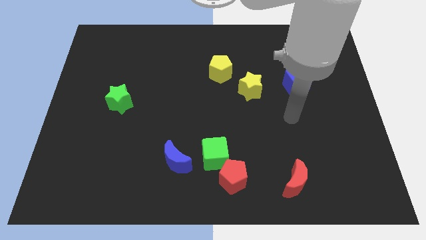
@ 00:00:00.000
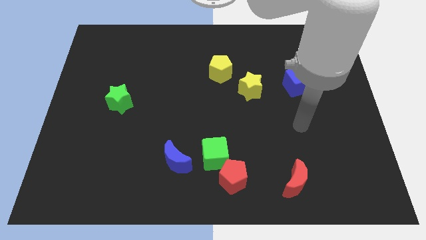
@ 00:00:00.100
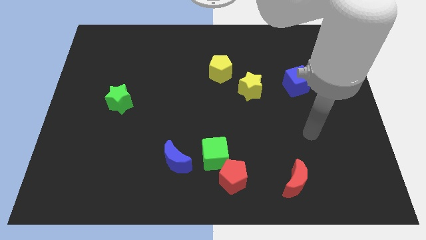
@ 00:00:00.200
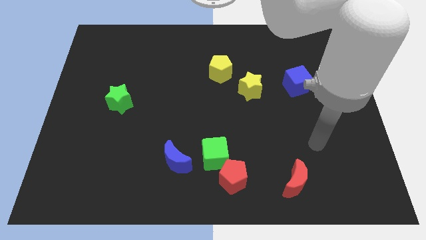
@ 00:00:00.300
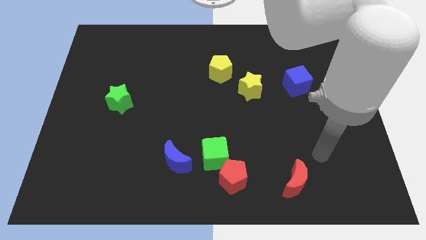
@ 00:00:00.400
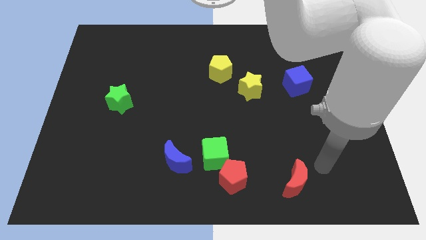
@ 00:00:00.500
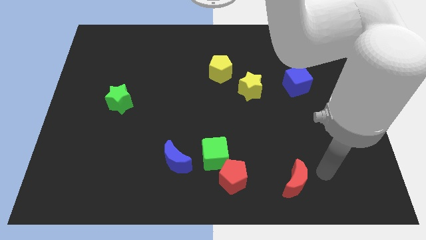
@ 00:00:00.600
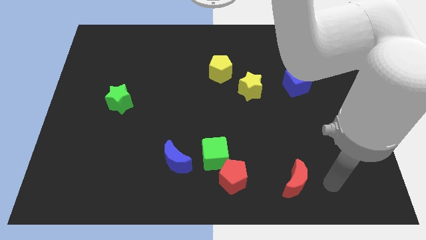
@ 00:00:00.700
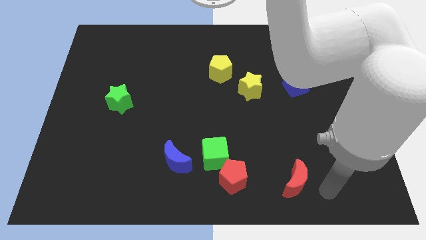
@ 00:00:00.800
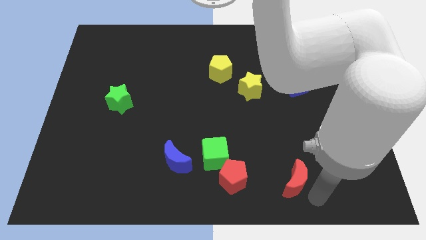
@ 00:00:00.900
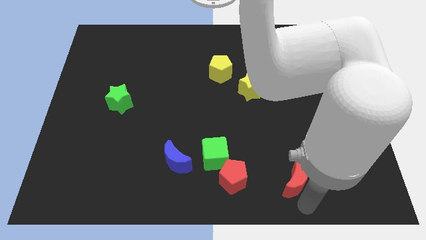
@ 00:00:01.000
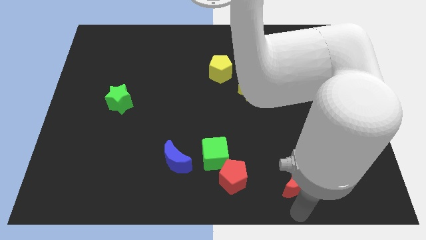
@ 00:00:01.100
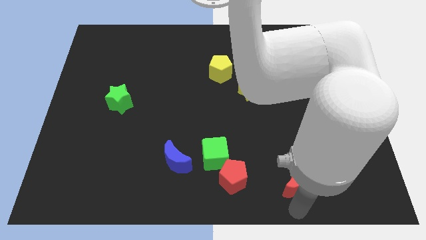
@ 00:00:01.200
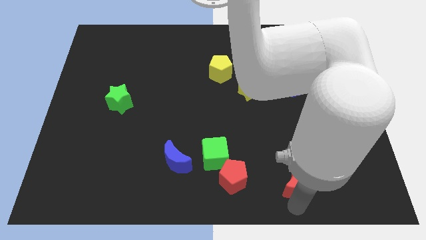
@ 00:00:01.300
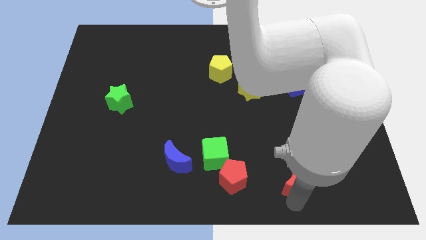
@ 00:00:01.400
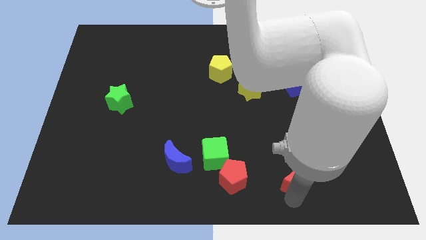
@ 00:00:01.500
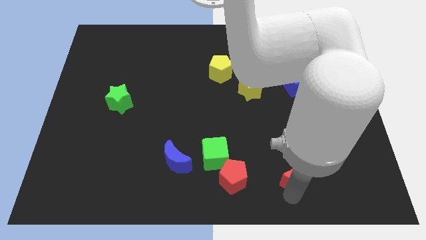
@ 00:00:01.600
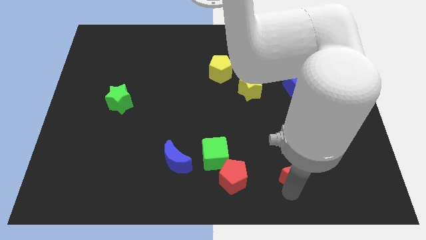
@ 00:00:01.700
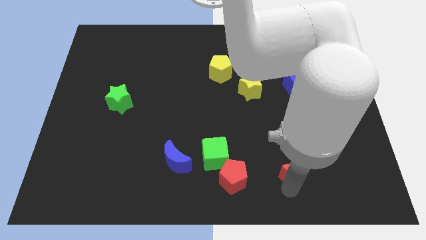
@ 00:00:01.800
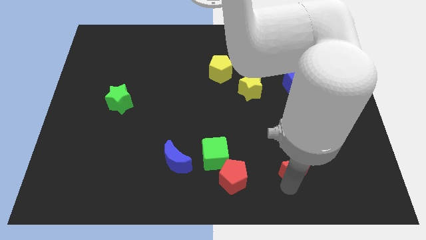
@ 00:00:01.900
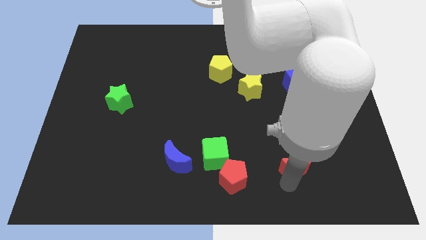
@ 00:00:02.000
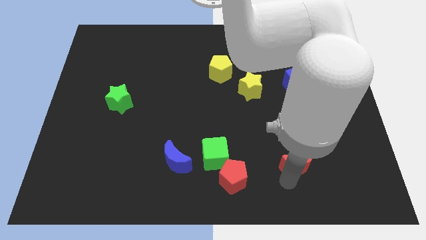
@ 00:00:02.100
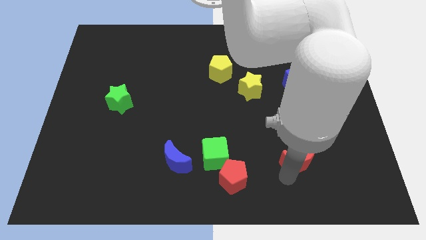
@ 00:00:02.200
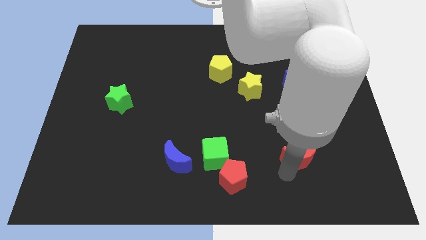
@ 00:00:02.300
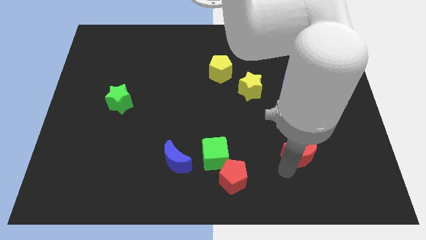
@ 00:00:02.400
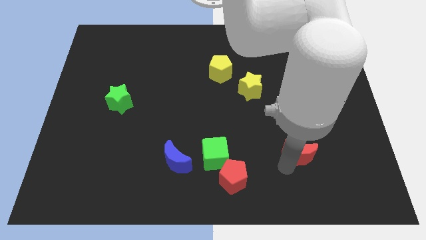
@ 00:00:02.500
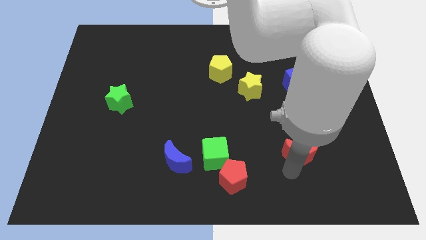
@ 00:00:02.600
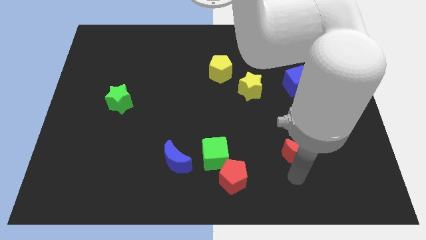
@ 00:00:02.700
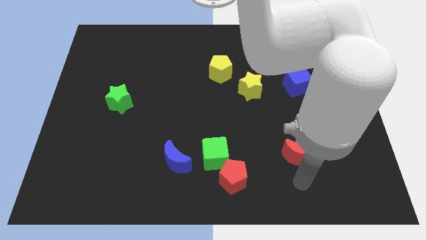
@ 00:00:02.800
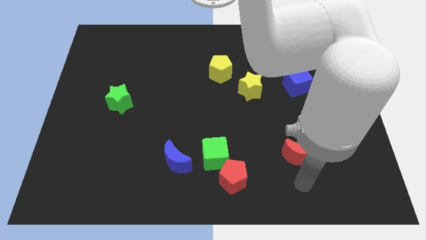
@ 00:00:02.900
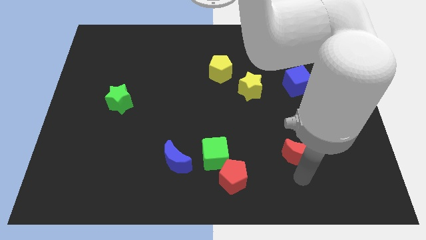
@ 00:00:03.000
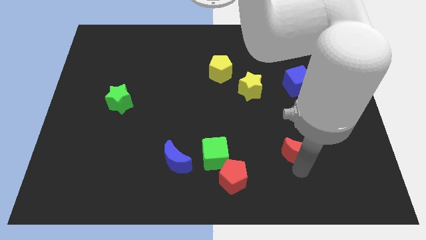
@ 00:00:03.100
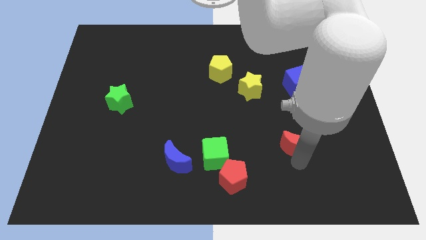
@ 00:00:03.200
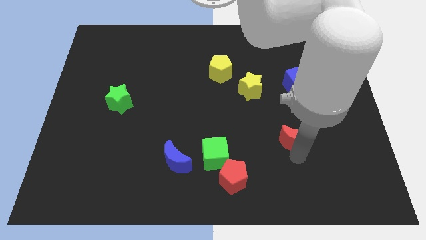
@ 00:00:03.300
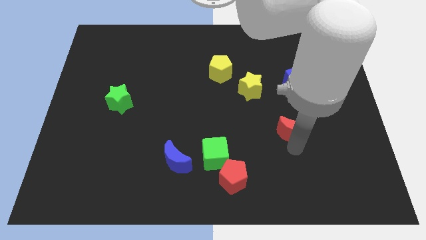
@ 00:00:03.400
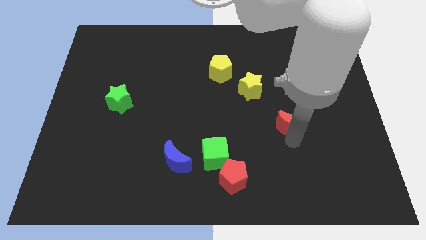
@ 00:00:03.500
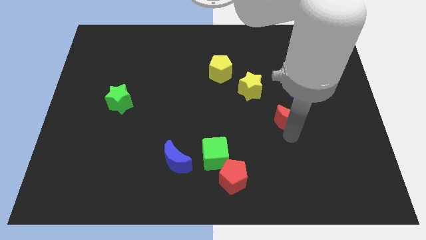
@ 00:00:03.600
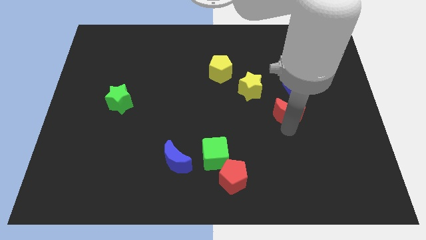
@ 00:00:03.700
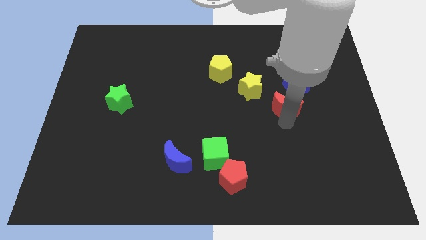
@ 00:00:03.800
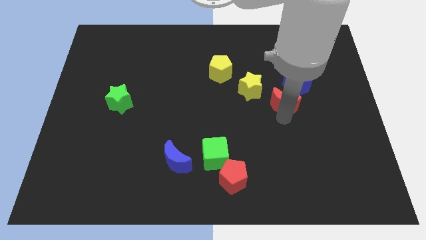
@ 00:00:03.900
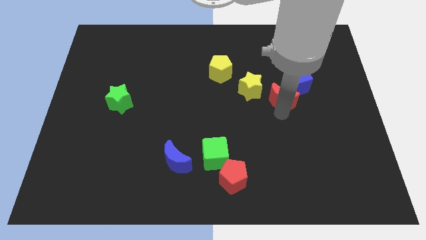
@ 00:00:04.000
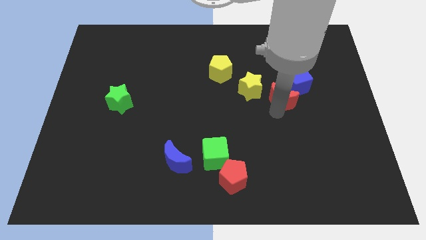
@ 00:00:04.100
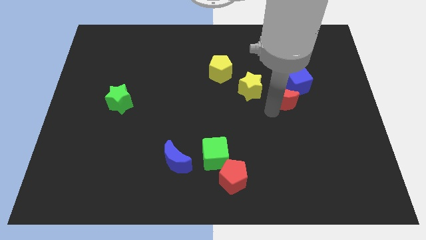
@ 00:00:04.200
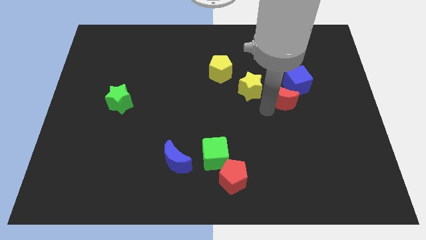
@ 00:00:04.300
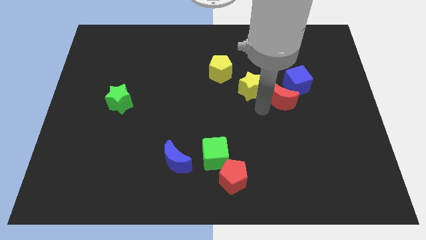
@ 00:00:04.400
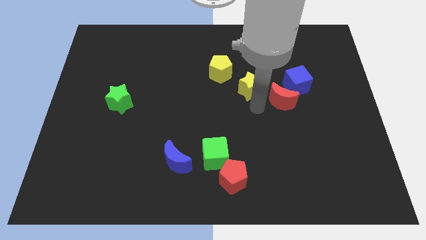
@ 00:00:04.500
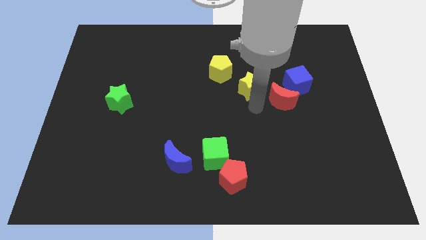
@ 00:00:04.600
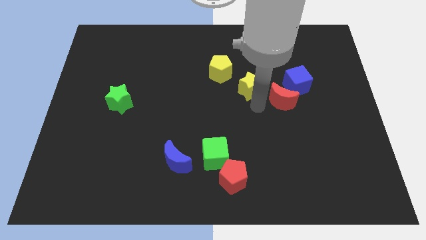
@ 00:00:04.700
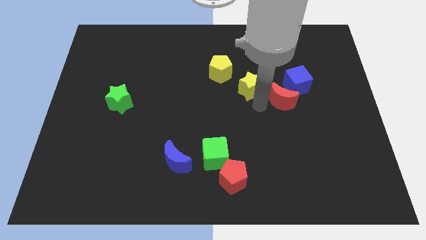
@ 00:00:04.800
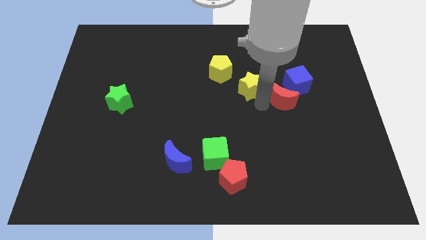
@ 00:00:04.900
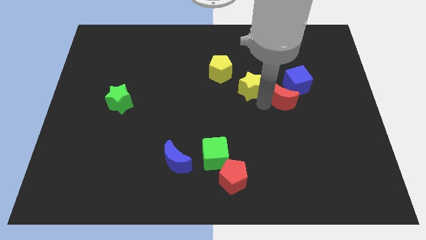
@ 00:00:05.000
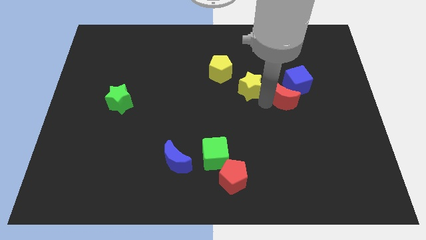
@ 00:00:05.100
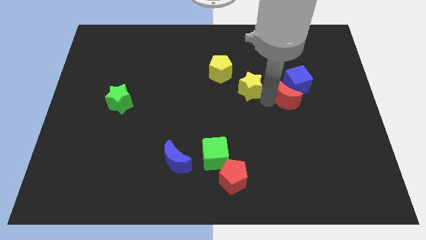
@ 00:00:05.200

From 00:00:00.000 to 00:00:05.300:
put the red moon towards the blue cube

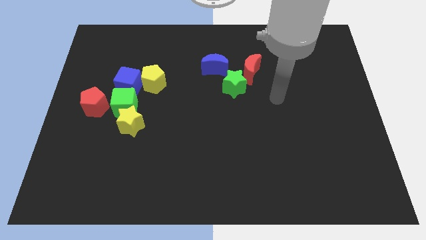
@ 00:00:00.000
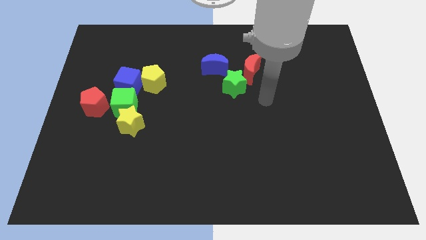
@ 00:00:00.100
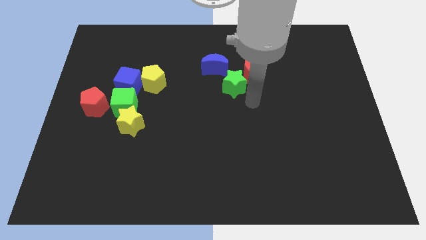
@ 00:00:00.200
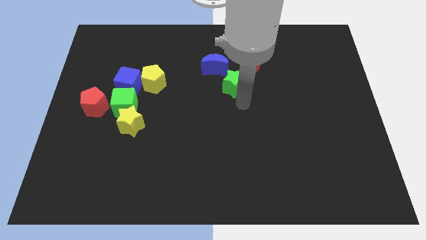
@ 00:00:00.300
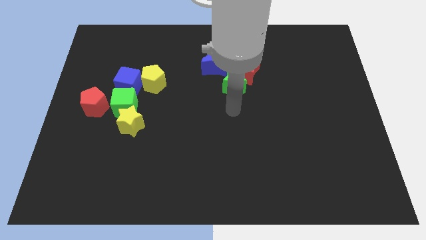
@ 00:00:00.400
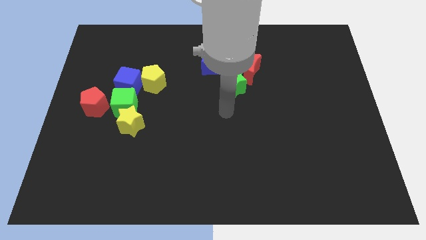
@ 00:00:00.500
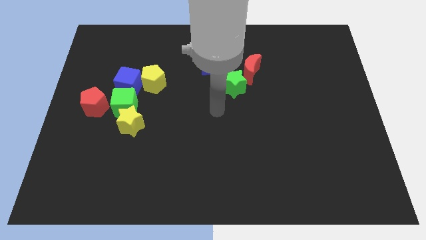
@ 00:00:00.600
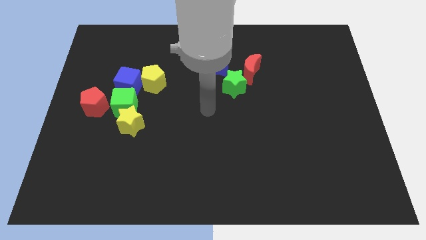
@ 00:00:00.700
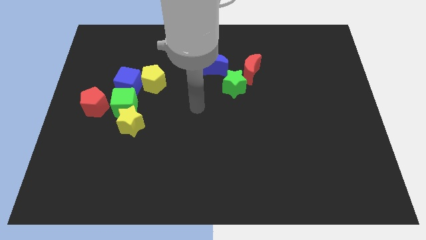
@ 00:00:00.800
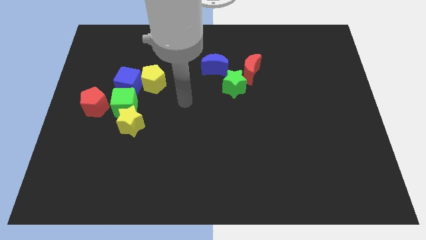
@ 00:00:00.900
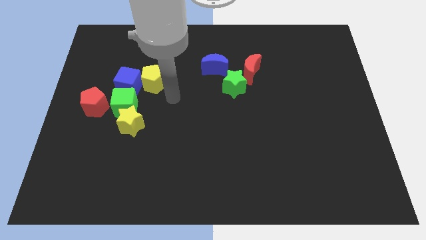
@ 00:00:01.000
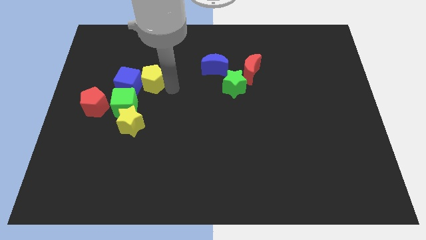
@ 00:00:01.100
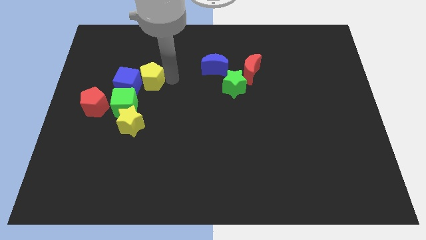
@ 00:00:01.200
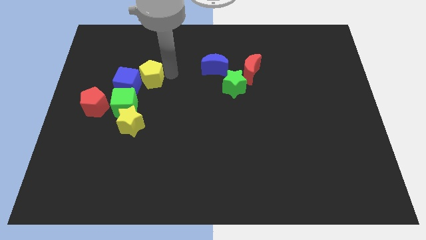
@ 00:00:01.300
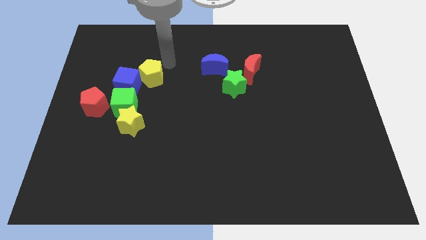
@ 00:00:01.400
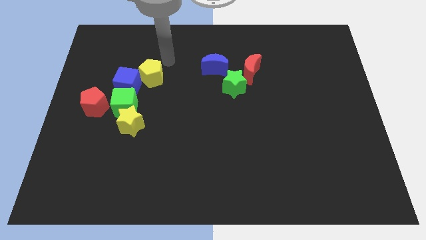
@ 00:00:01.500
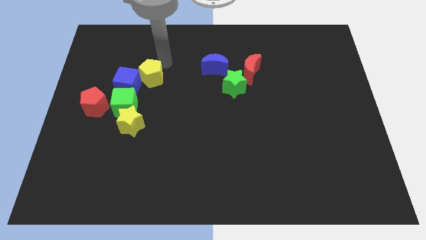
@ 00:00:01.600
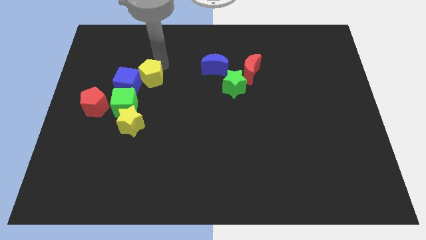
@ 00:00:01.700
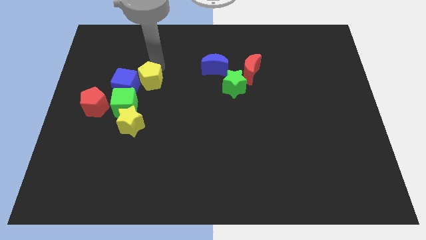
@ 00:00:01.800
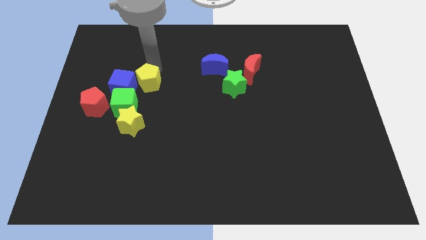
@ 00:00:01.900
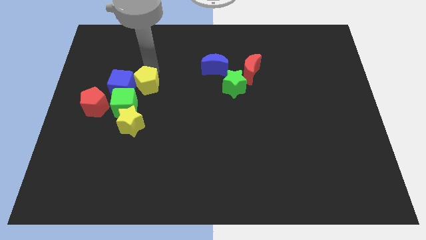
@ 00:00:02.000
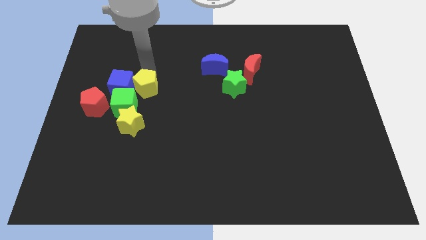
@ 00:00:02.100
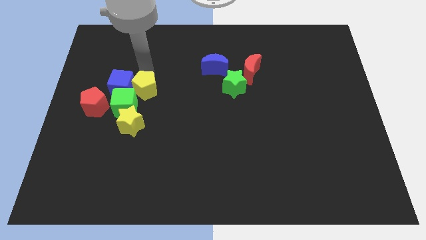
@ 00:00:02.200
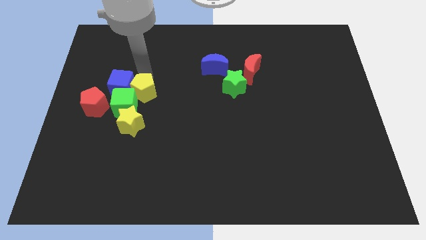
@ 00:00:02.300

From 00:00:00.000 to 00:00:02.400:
move the yellow pentagon towards the green cube
